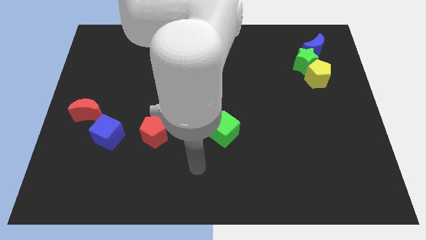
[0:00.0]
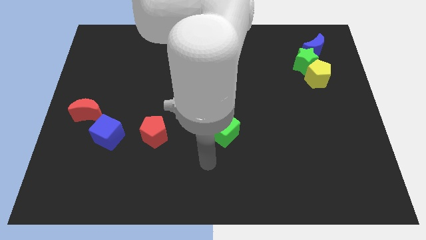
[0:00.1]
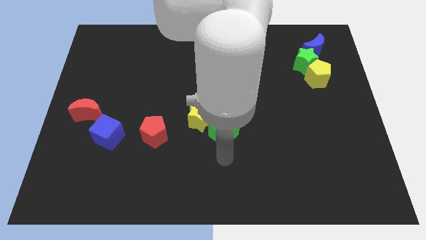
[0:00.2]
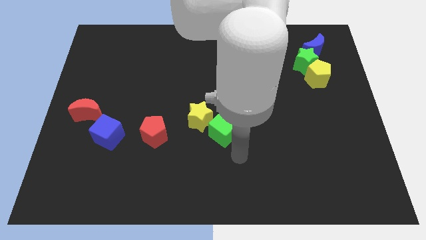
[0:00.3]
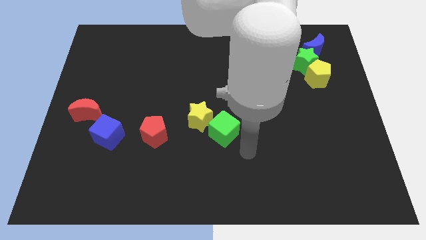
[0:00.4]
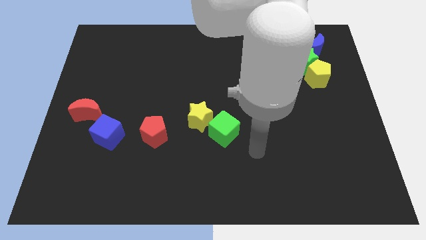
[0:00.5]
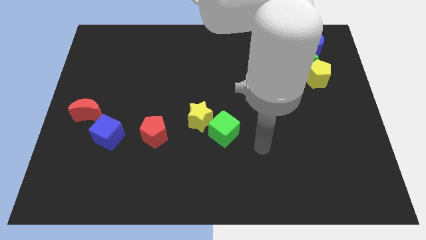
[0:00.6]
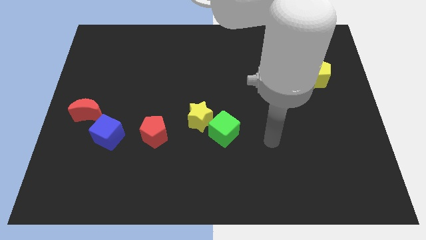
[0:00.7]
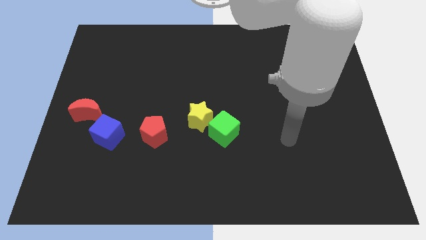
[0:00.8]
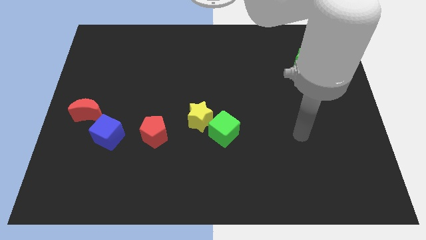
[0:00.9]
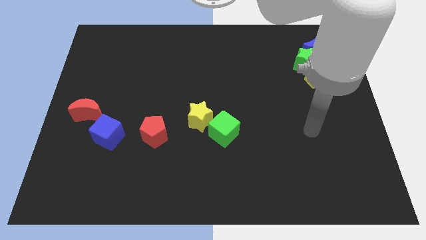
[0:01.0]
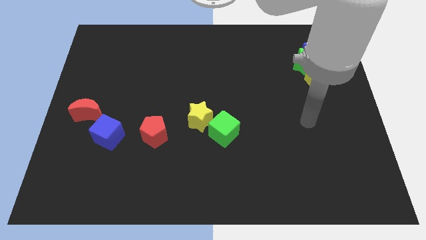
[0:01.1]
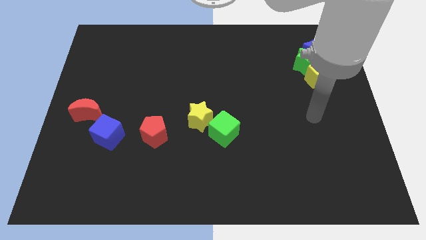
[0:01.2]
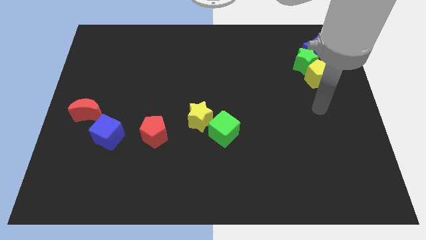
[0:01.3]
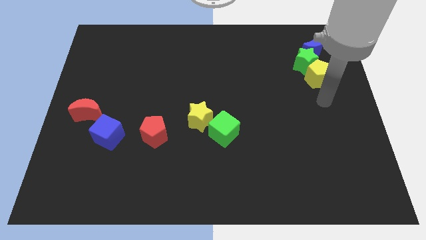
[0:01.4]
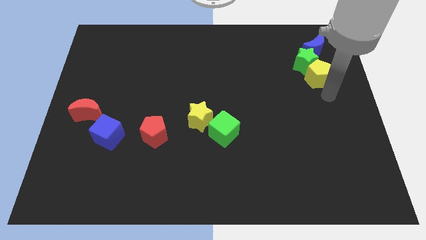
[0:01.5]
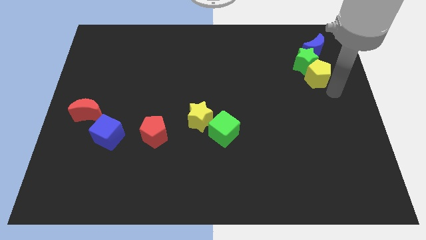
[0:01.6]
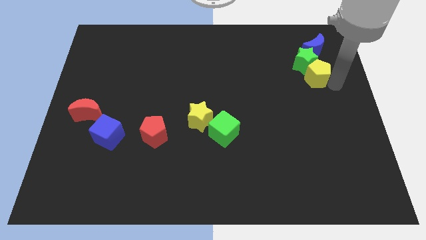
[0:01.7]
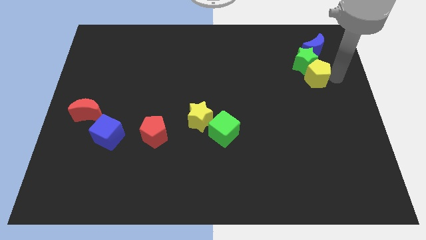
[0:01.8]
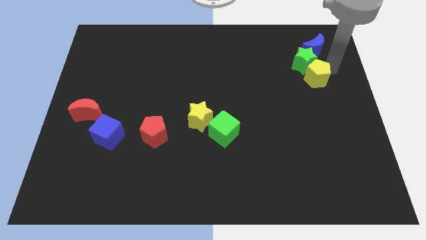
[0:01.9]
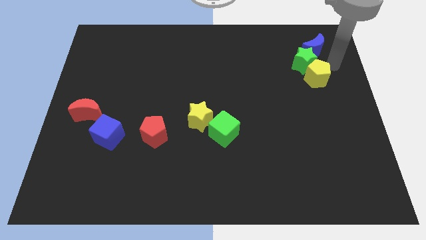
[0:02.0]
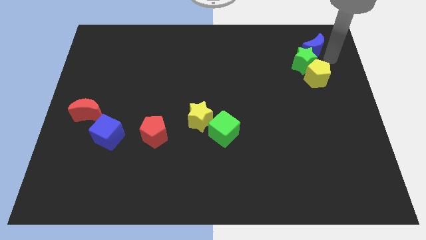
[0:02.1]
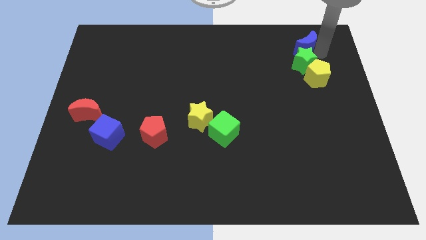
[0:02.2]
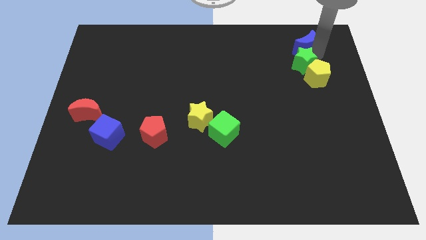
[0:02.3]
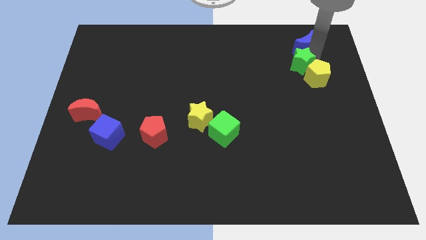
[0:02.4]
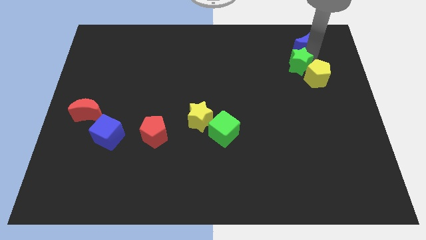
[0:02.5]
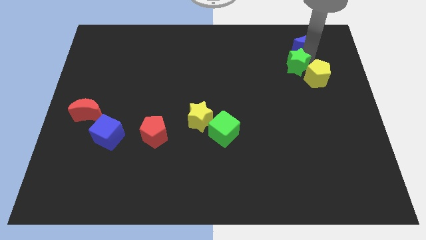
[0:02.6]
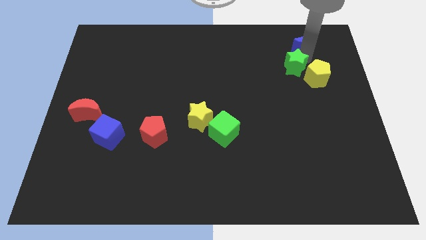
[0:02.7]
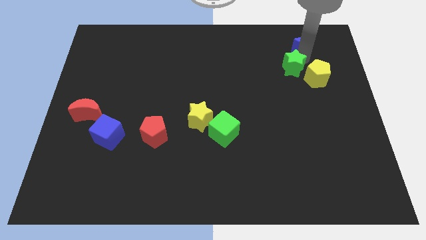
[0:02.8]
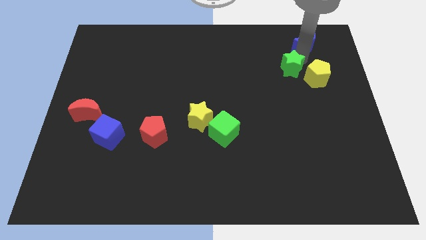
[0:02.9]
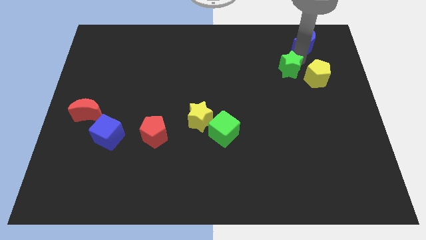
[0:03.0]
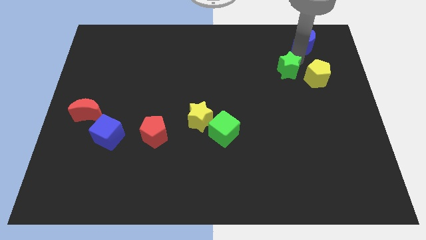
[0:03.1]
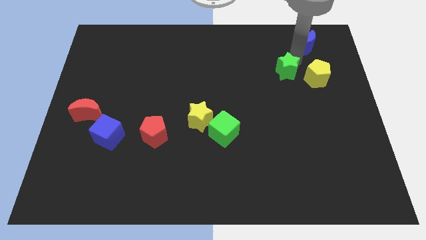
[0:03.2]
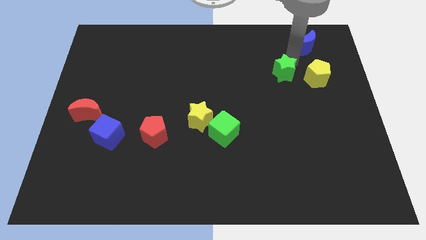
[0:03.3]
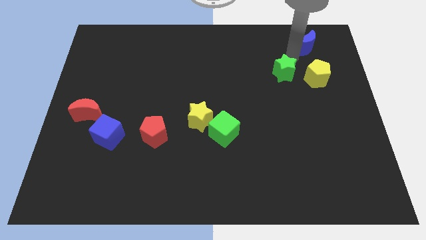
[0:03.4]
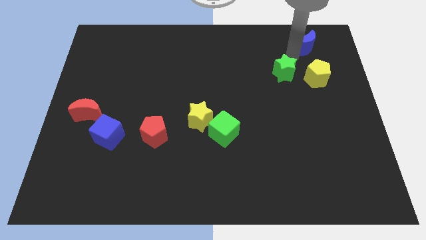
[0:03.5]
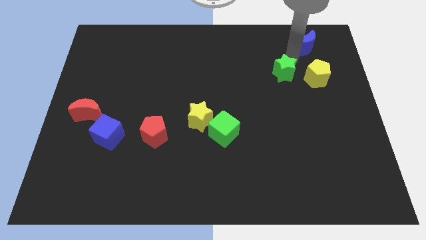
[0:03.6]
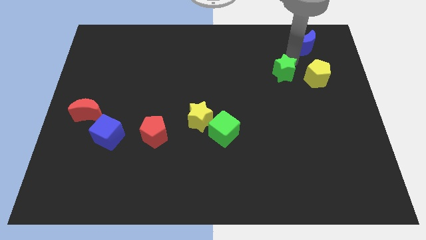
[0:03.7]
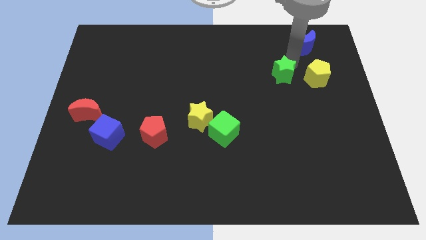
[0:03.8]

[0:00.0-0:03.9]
slightly push the green star down and to the left diagonally

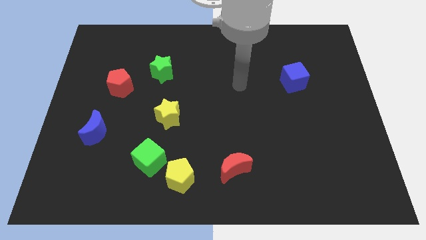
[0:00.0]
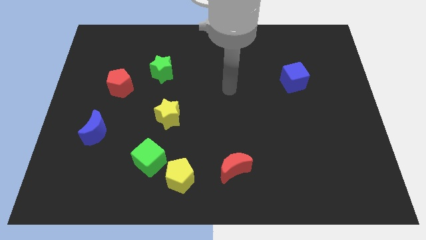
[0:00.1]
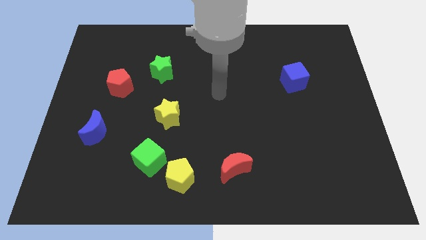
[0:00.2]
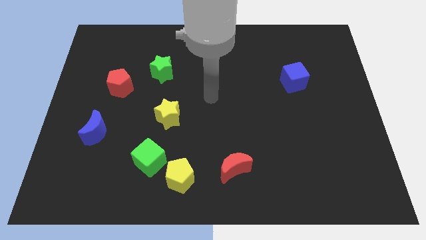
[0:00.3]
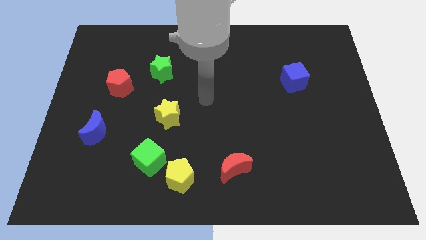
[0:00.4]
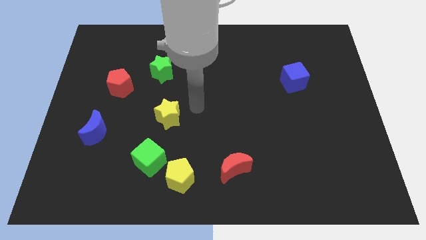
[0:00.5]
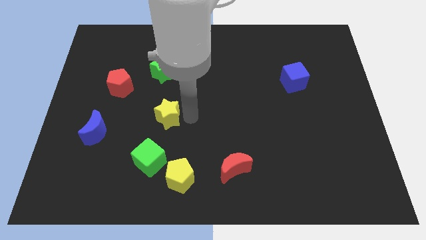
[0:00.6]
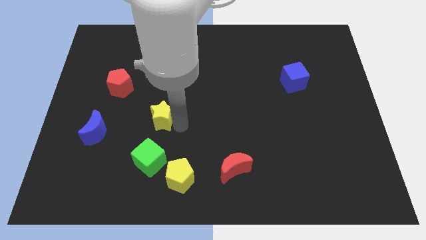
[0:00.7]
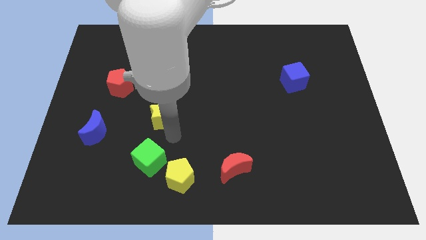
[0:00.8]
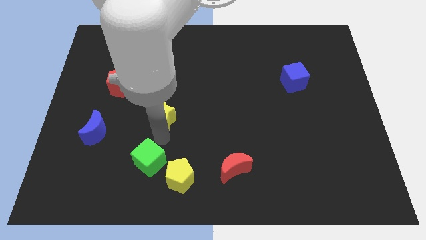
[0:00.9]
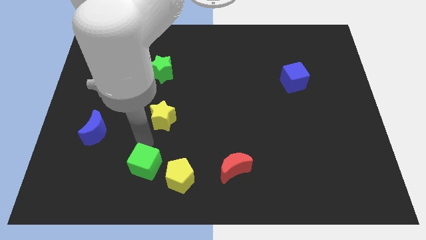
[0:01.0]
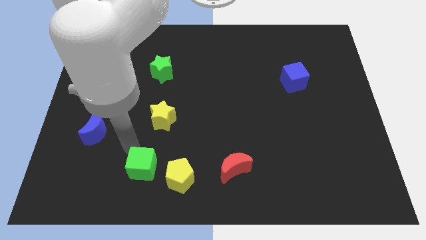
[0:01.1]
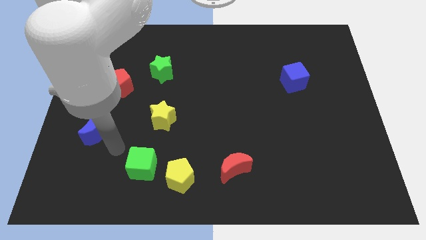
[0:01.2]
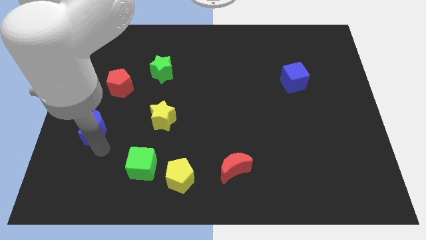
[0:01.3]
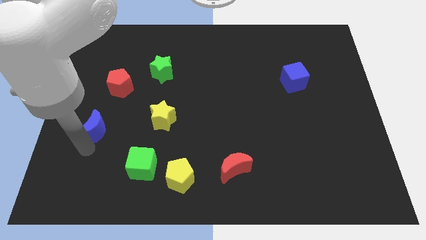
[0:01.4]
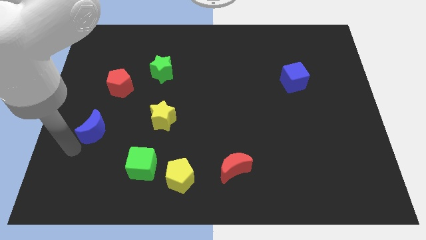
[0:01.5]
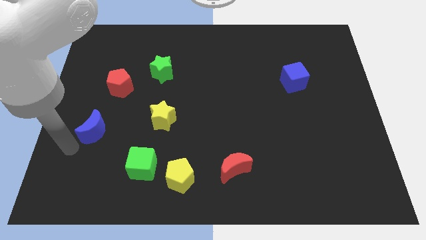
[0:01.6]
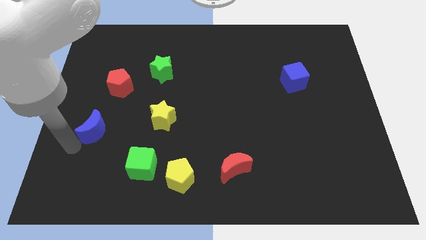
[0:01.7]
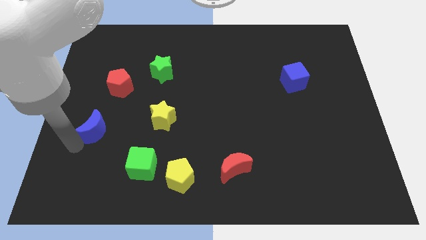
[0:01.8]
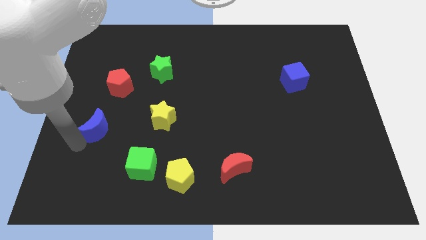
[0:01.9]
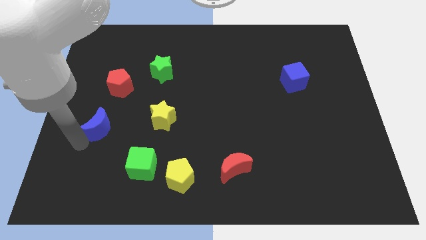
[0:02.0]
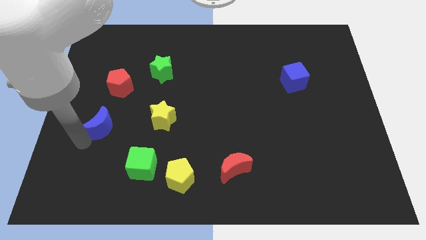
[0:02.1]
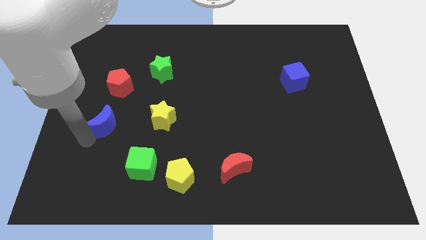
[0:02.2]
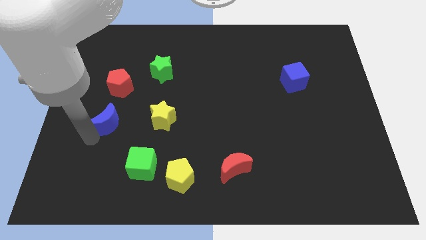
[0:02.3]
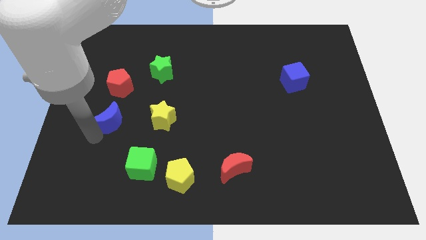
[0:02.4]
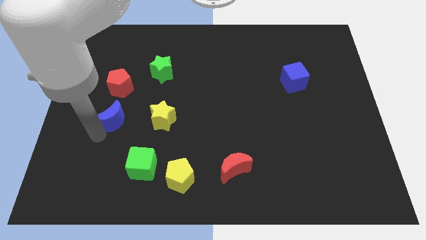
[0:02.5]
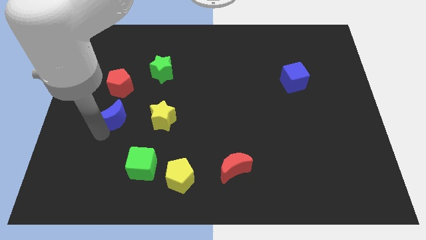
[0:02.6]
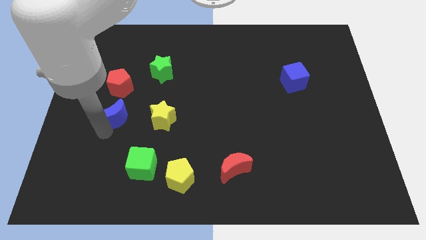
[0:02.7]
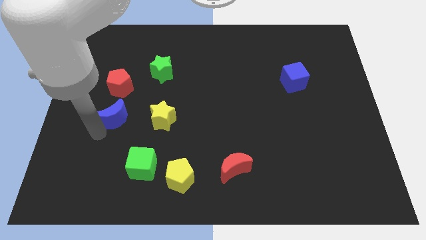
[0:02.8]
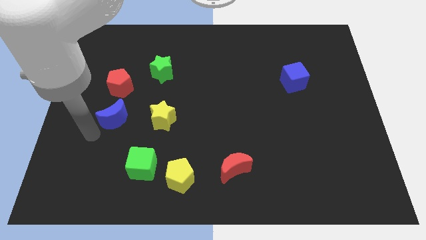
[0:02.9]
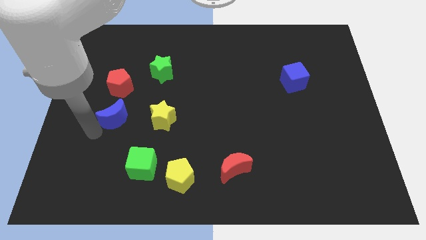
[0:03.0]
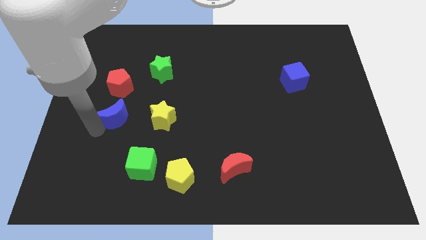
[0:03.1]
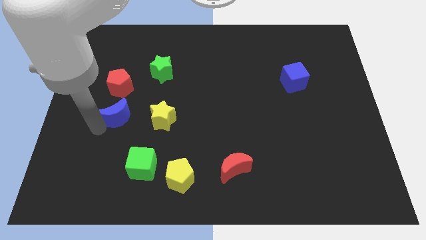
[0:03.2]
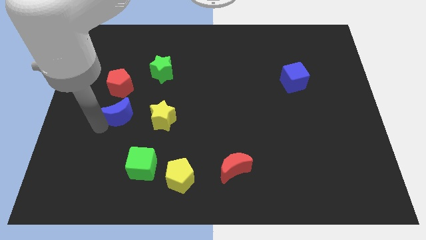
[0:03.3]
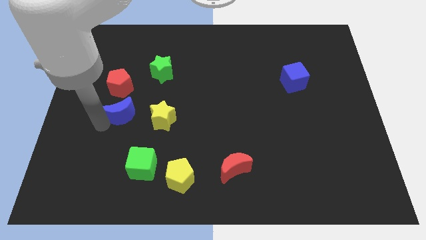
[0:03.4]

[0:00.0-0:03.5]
push the blue moon a little diagonally up and right

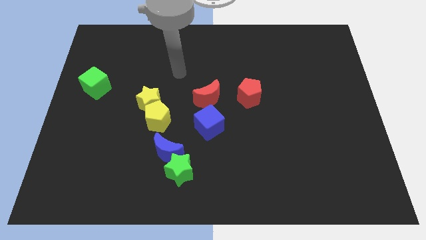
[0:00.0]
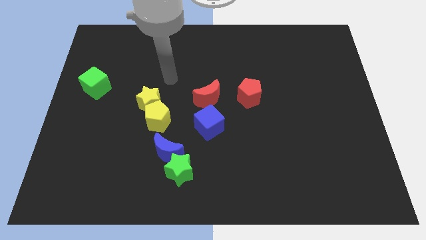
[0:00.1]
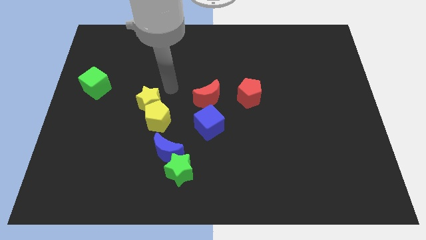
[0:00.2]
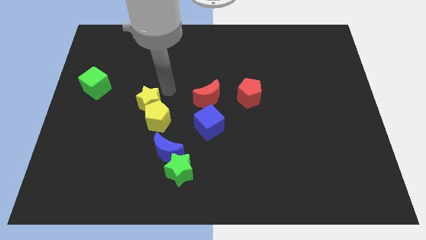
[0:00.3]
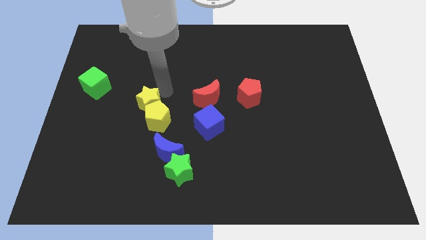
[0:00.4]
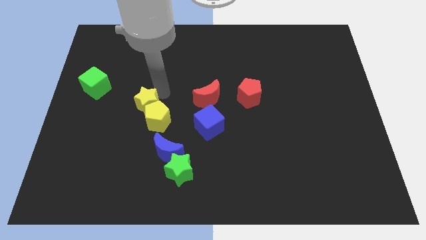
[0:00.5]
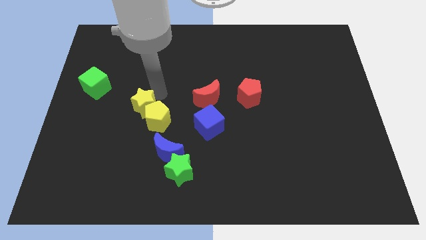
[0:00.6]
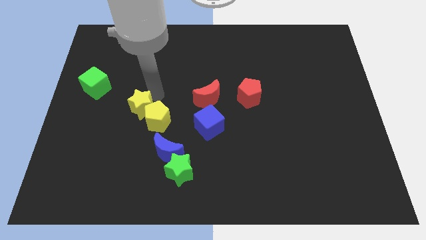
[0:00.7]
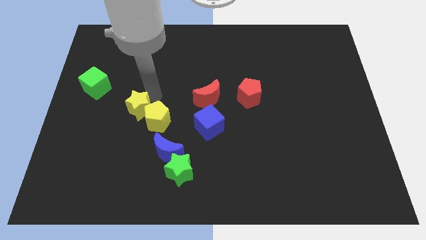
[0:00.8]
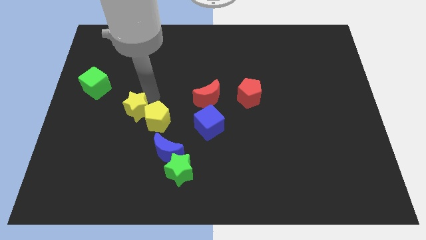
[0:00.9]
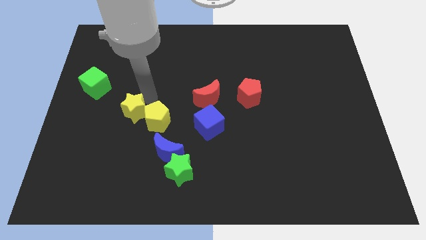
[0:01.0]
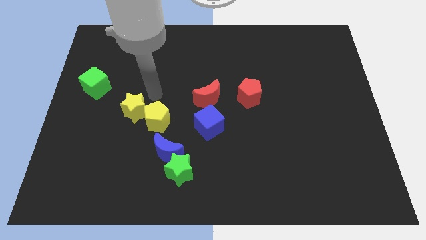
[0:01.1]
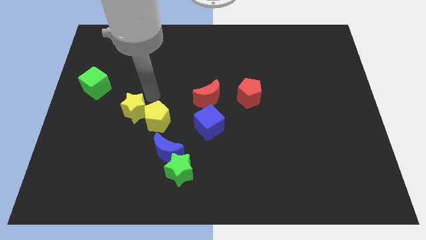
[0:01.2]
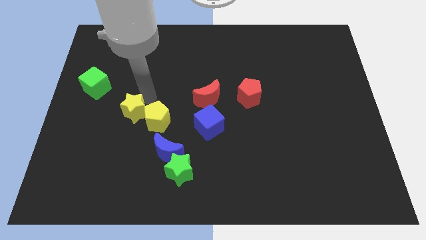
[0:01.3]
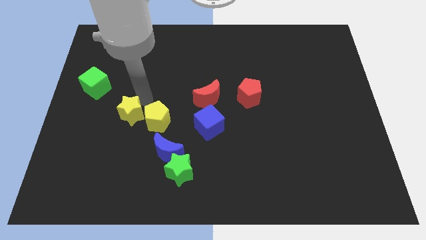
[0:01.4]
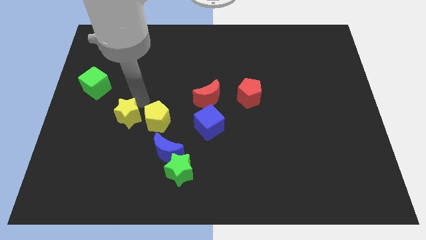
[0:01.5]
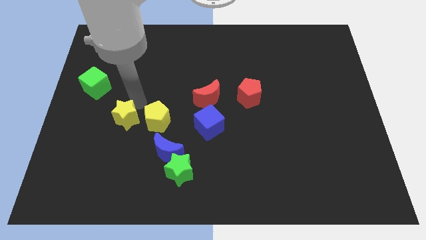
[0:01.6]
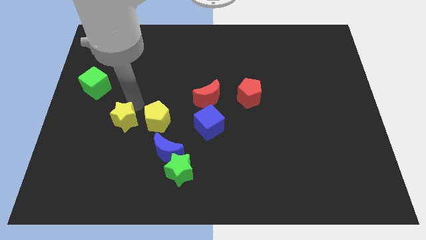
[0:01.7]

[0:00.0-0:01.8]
push the yellow star slightly down and left
